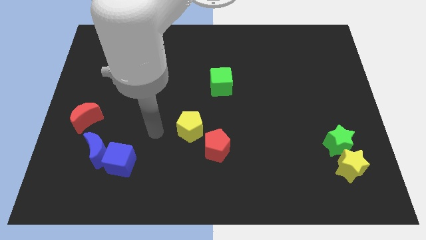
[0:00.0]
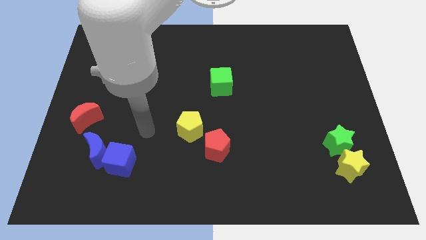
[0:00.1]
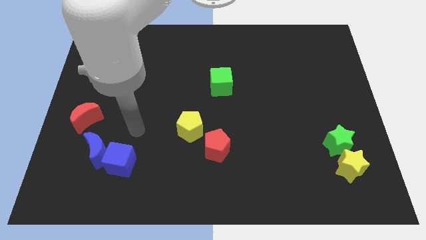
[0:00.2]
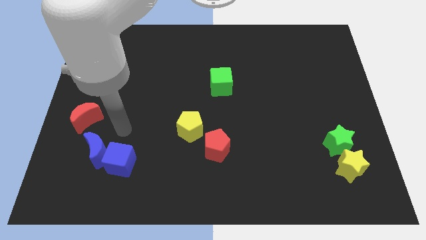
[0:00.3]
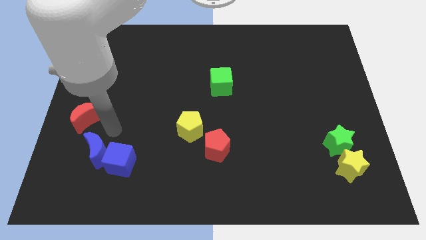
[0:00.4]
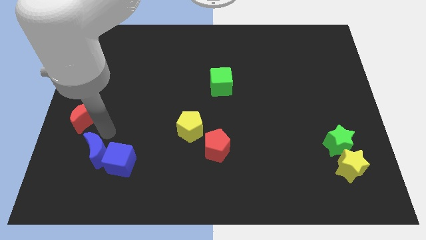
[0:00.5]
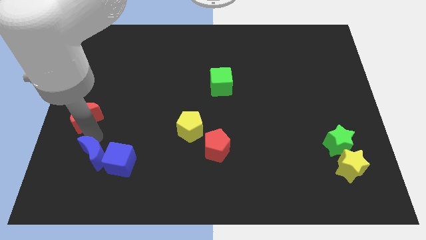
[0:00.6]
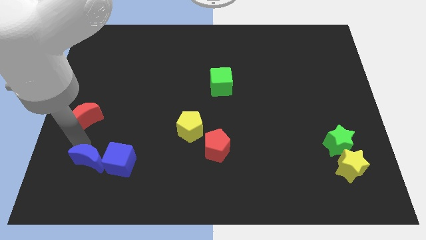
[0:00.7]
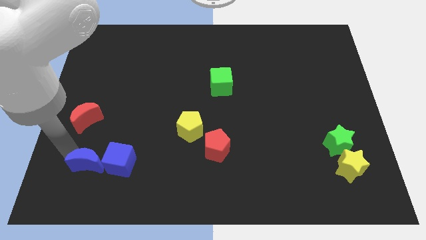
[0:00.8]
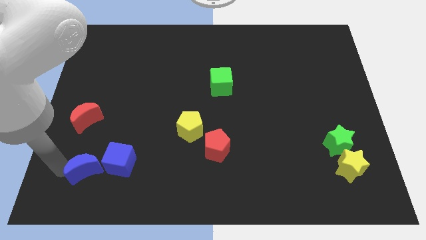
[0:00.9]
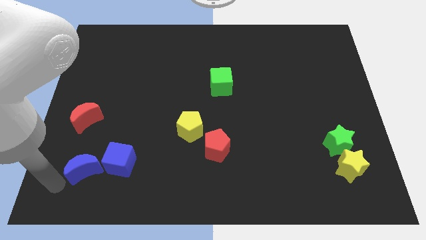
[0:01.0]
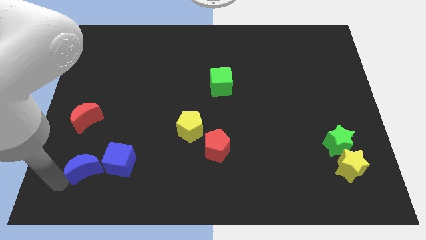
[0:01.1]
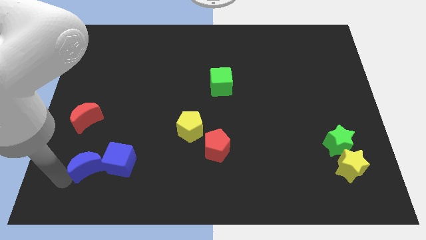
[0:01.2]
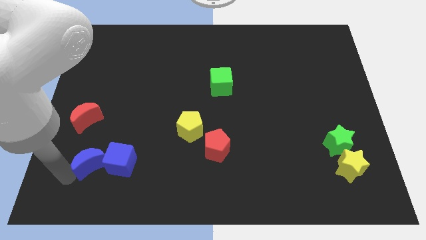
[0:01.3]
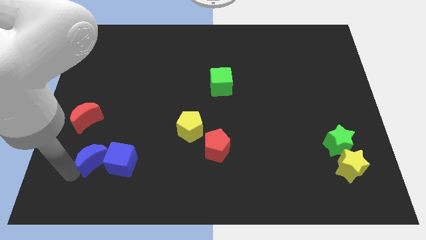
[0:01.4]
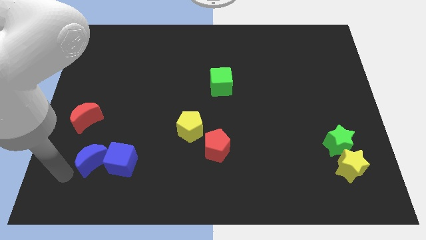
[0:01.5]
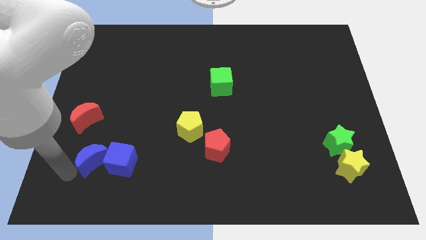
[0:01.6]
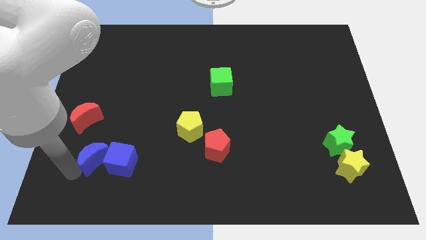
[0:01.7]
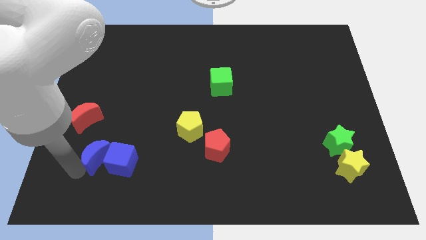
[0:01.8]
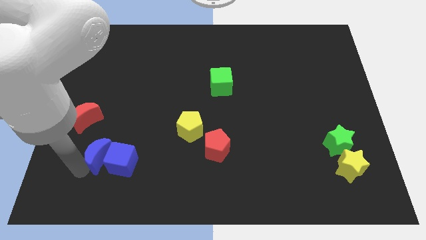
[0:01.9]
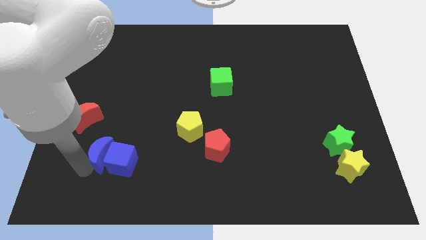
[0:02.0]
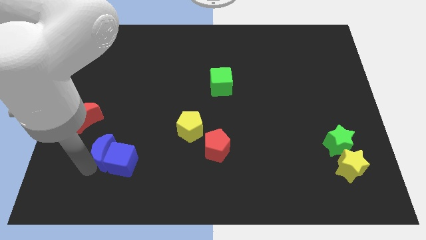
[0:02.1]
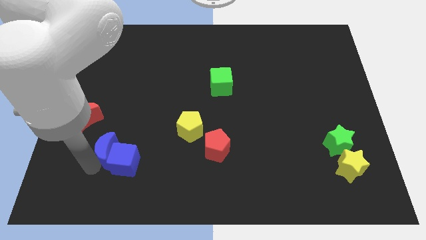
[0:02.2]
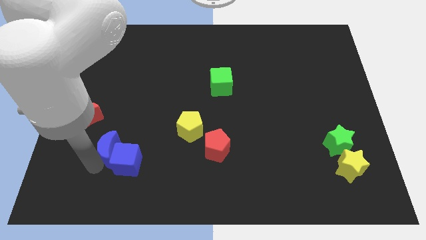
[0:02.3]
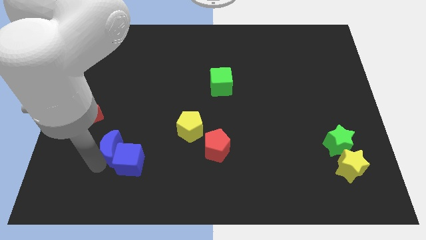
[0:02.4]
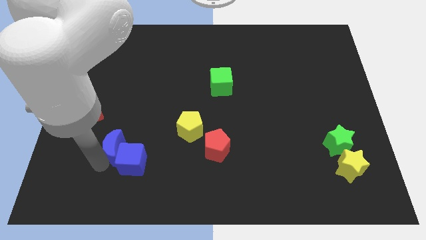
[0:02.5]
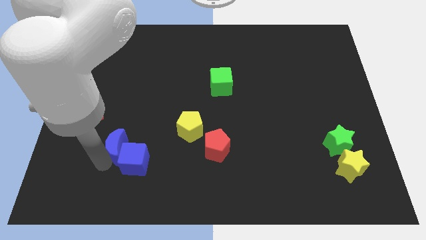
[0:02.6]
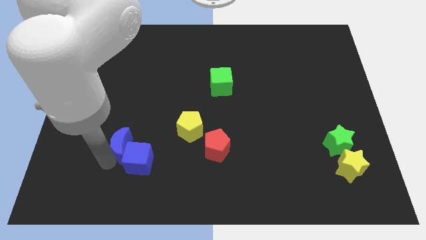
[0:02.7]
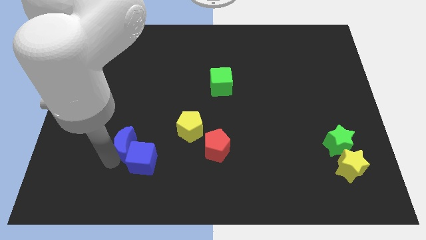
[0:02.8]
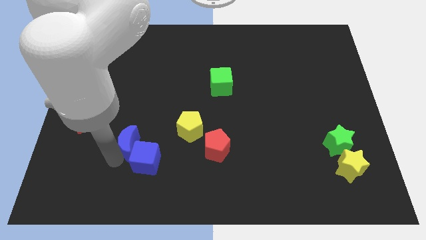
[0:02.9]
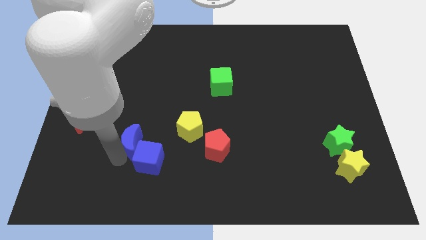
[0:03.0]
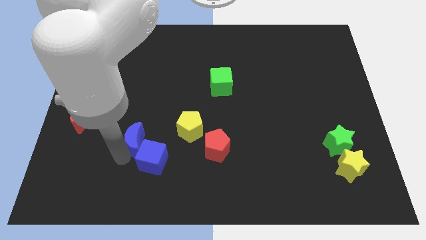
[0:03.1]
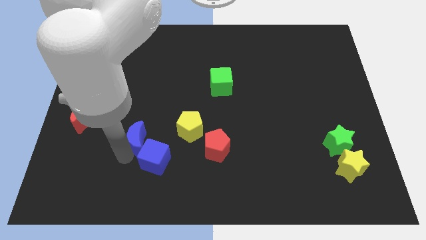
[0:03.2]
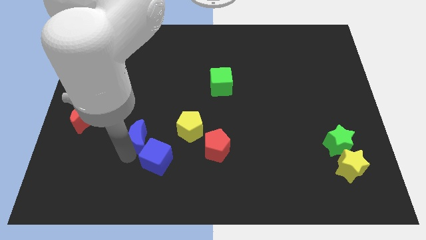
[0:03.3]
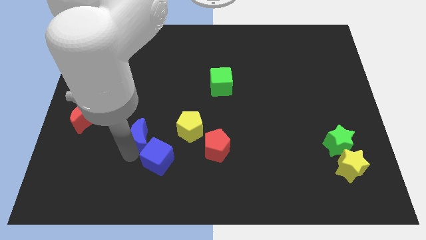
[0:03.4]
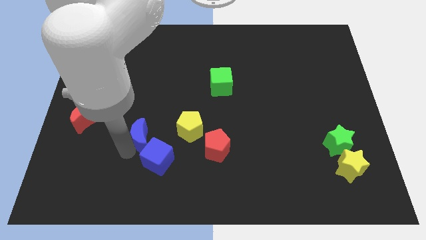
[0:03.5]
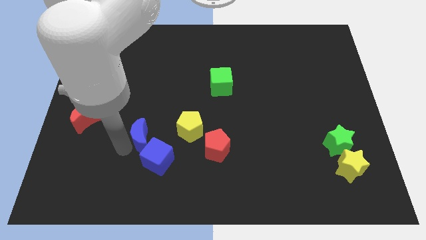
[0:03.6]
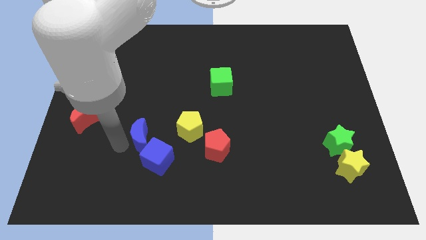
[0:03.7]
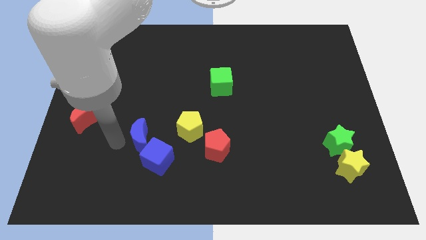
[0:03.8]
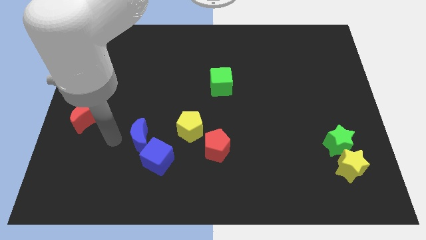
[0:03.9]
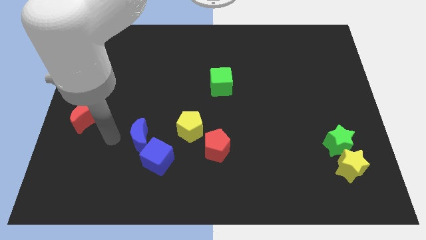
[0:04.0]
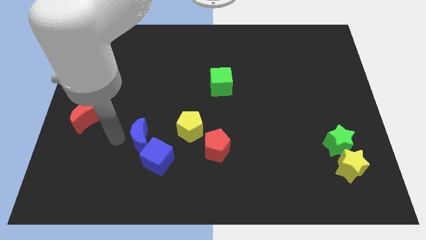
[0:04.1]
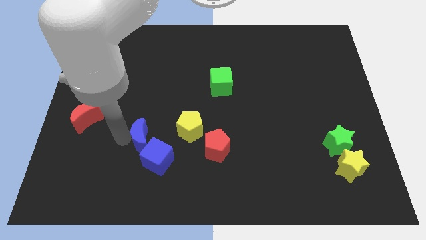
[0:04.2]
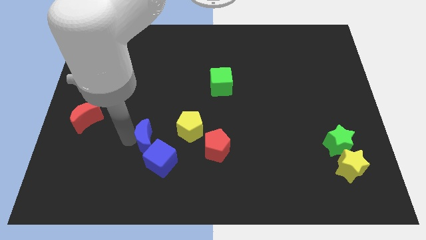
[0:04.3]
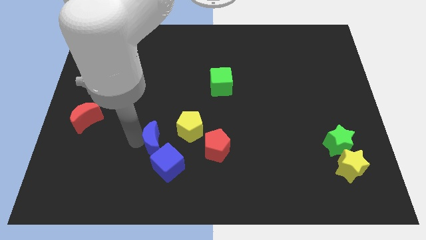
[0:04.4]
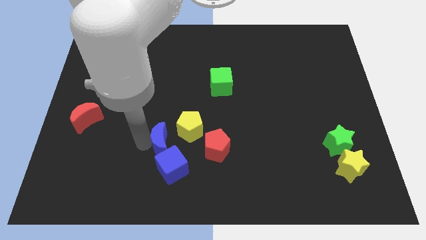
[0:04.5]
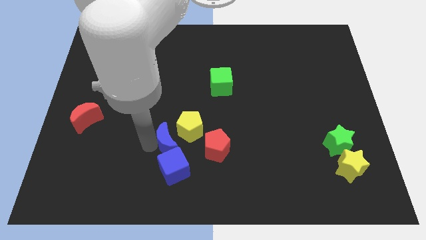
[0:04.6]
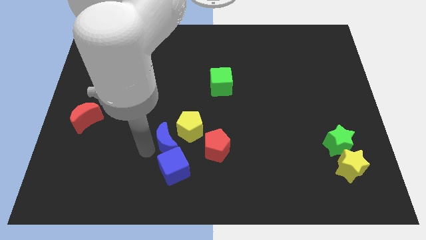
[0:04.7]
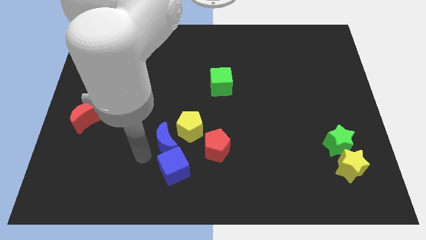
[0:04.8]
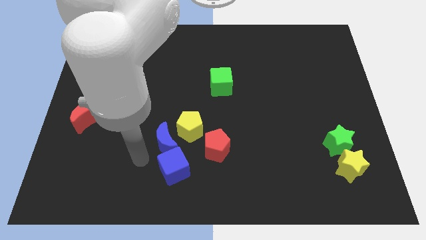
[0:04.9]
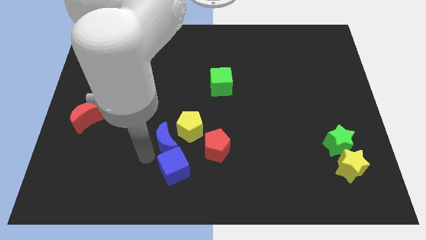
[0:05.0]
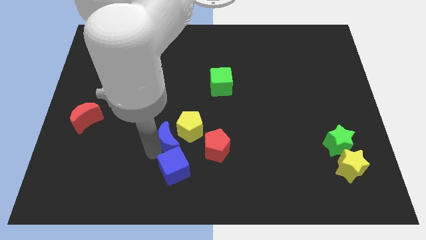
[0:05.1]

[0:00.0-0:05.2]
move the blue moon next to the yellow pentagon

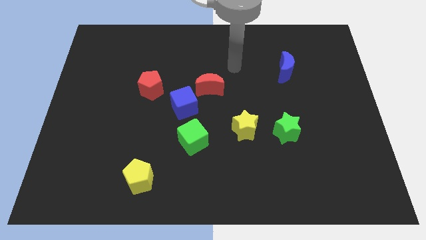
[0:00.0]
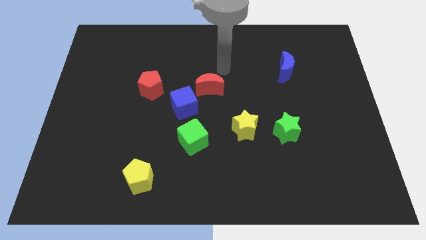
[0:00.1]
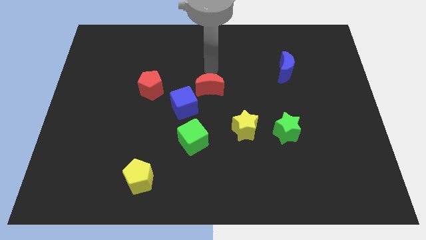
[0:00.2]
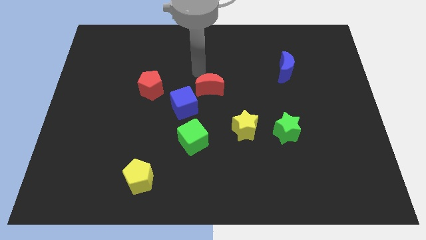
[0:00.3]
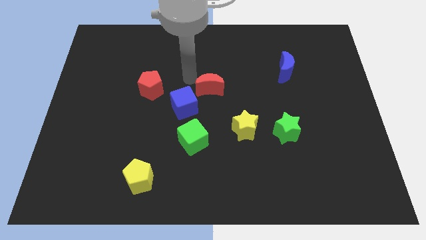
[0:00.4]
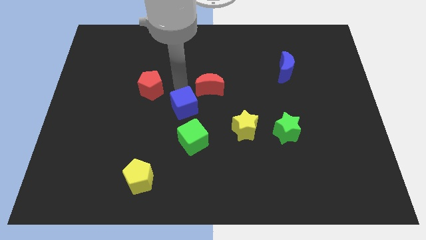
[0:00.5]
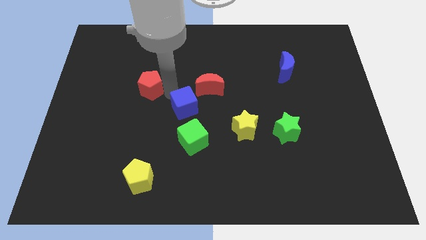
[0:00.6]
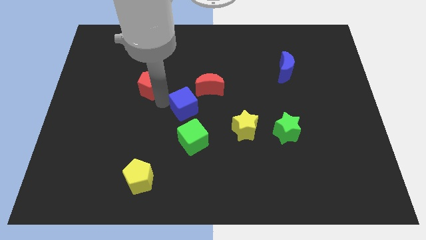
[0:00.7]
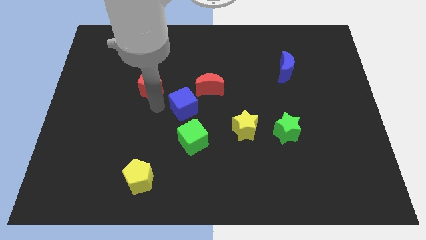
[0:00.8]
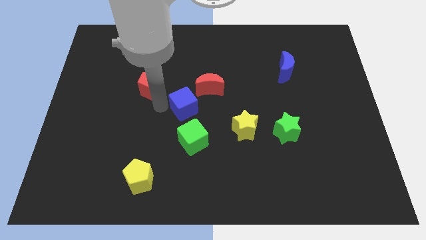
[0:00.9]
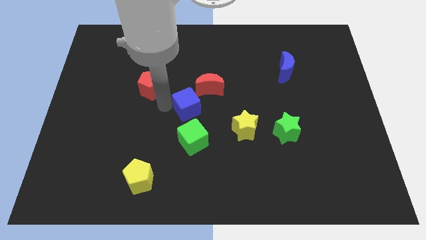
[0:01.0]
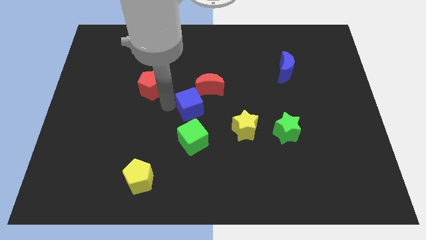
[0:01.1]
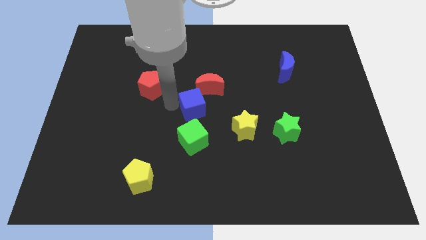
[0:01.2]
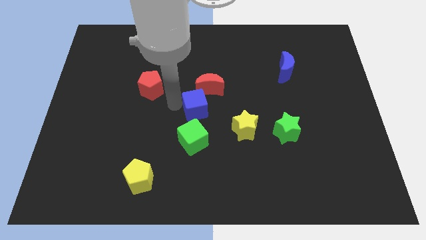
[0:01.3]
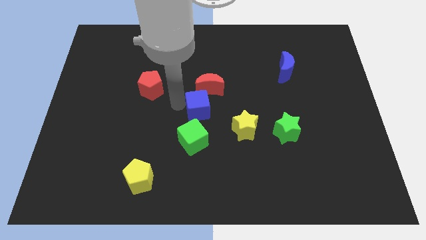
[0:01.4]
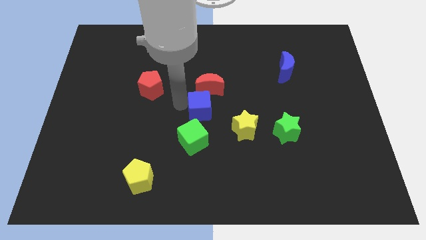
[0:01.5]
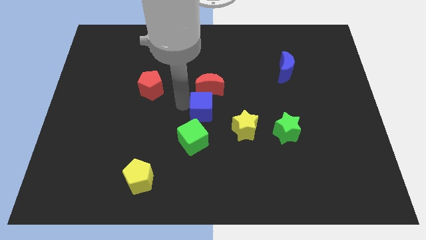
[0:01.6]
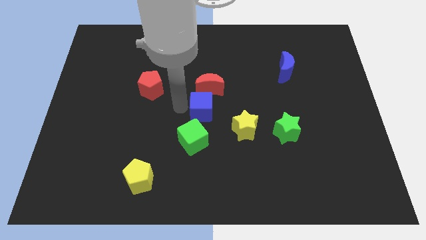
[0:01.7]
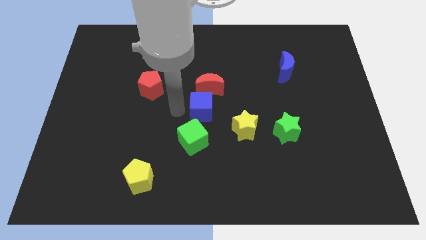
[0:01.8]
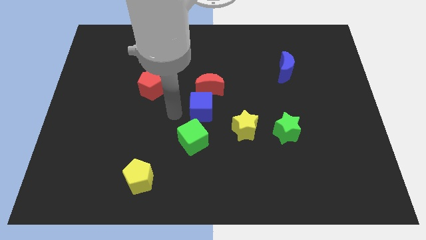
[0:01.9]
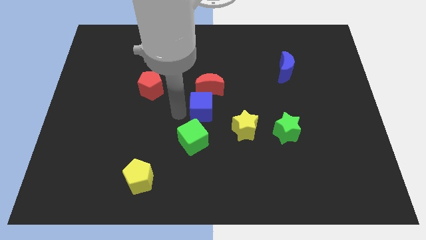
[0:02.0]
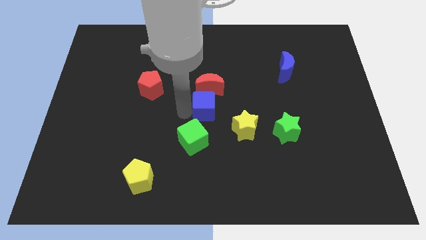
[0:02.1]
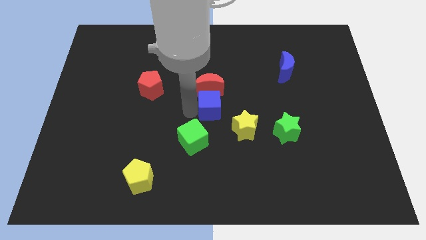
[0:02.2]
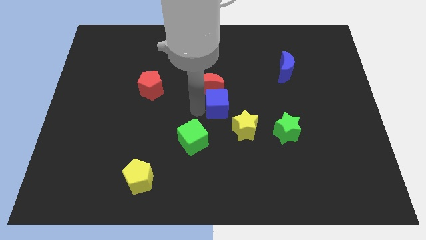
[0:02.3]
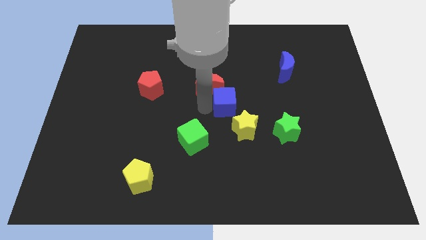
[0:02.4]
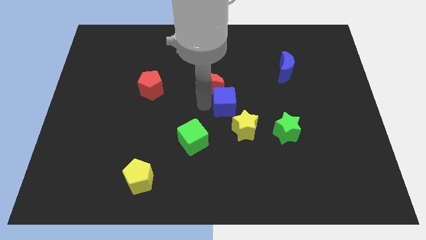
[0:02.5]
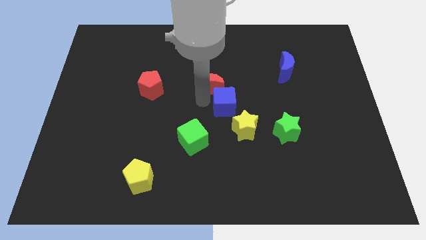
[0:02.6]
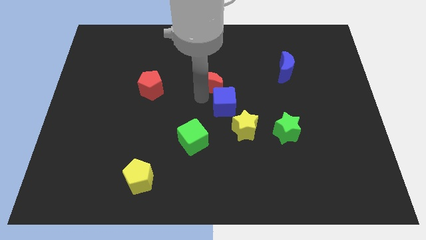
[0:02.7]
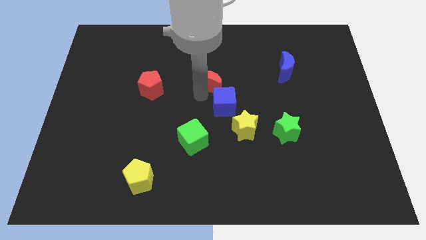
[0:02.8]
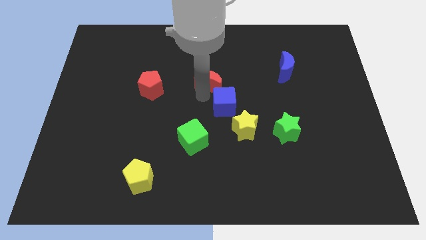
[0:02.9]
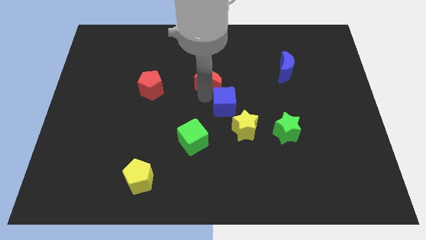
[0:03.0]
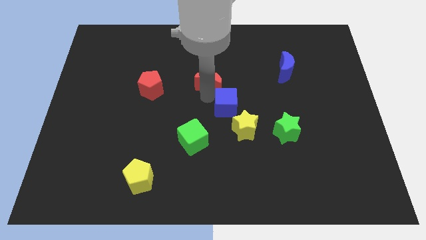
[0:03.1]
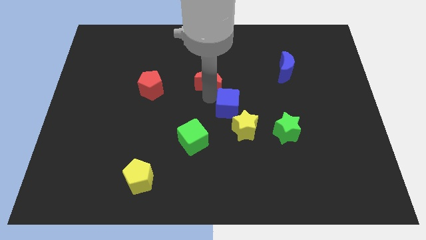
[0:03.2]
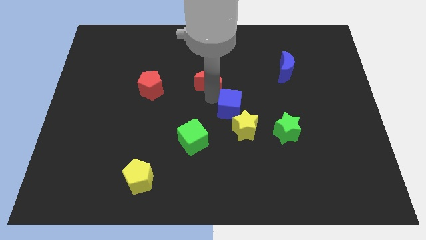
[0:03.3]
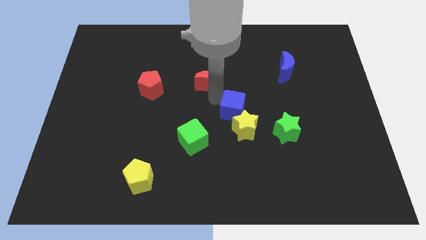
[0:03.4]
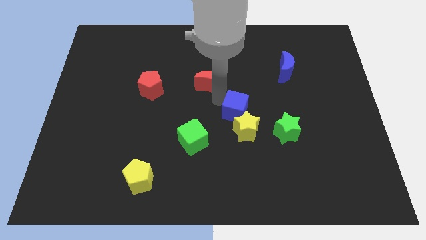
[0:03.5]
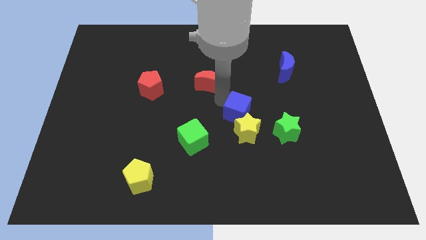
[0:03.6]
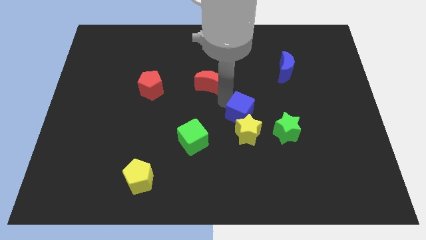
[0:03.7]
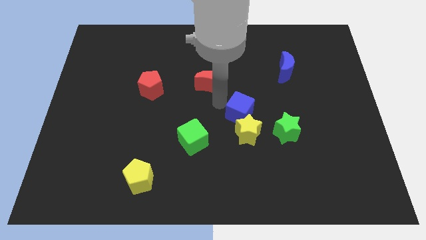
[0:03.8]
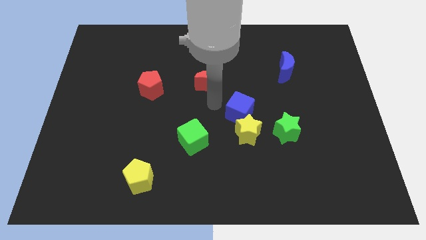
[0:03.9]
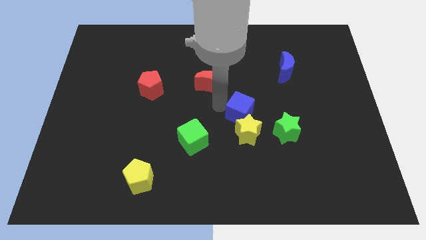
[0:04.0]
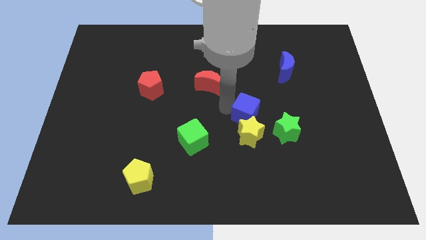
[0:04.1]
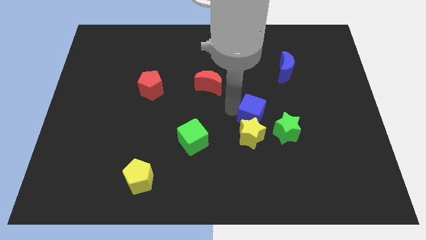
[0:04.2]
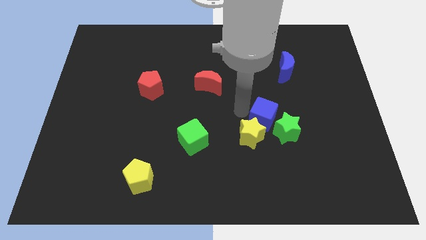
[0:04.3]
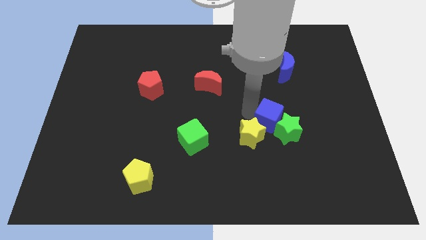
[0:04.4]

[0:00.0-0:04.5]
push the blue cube towards the green star
